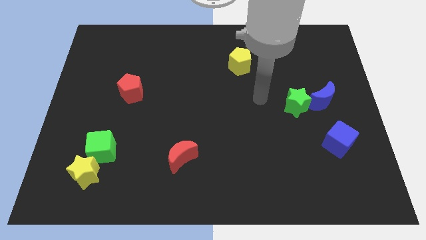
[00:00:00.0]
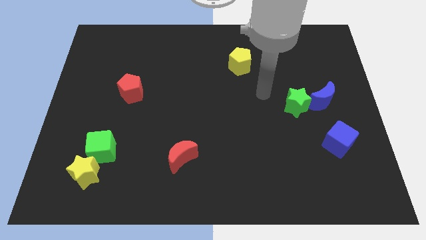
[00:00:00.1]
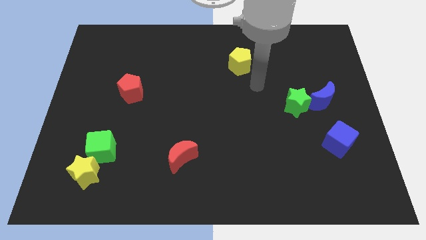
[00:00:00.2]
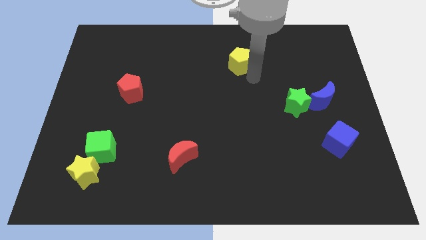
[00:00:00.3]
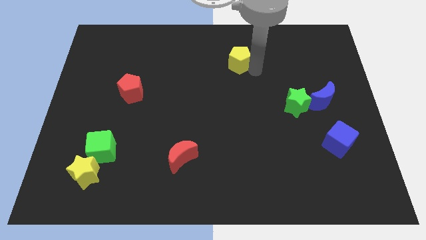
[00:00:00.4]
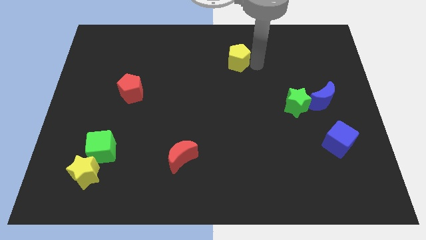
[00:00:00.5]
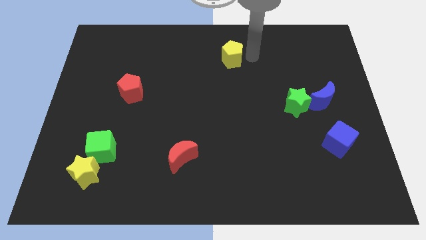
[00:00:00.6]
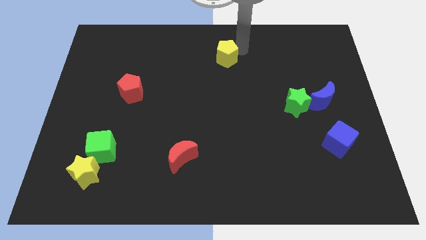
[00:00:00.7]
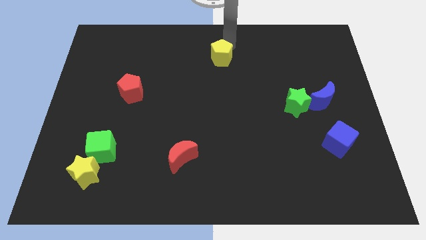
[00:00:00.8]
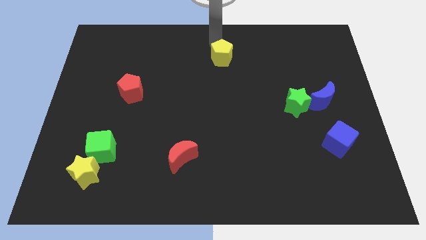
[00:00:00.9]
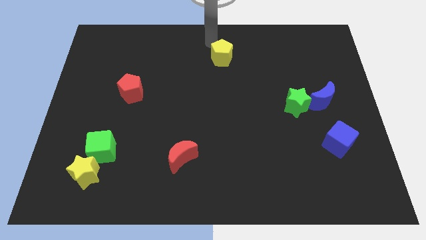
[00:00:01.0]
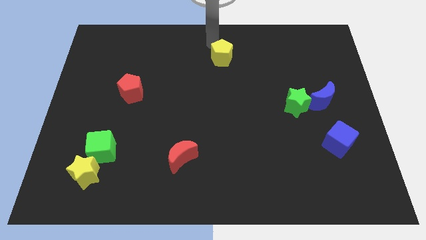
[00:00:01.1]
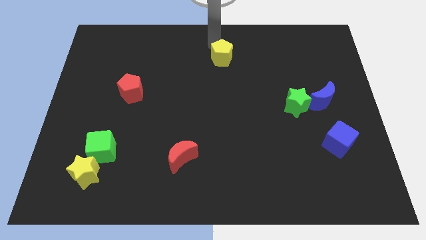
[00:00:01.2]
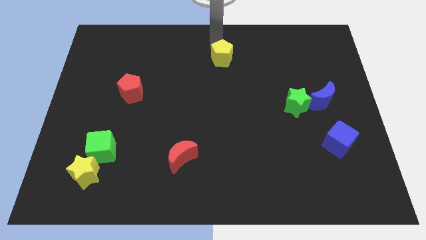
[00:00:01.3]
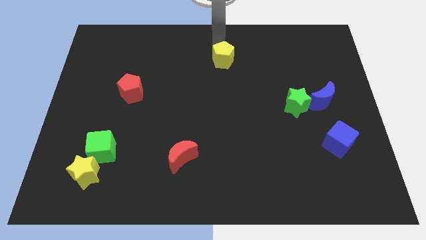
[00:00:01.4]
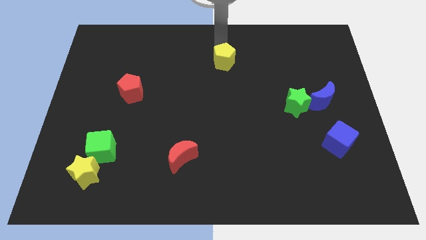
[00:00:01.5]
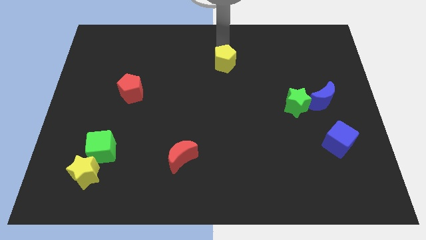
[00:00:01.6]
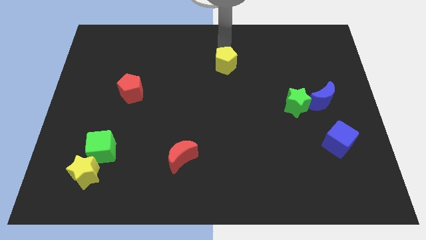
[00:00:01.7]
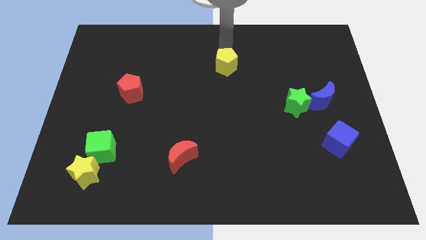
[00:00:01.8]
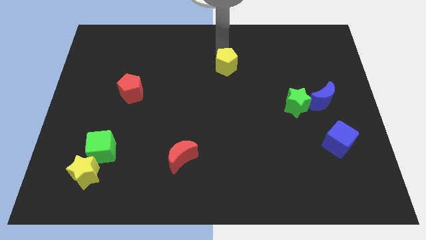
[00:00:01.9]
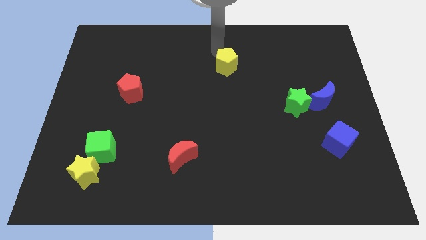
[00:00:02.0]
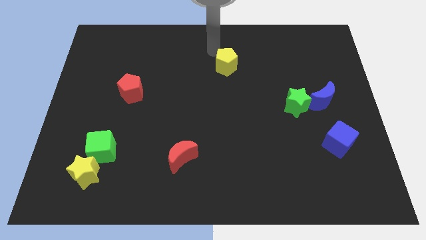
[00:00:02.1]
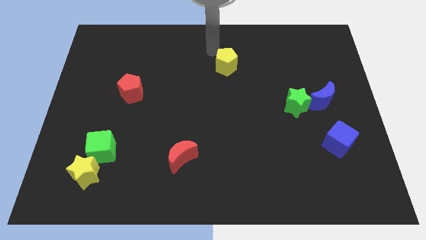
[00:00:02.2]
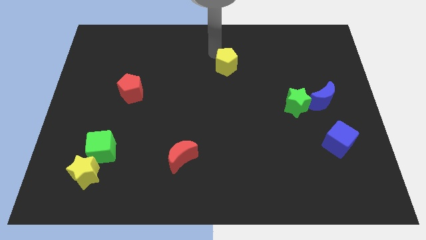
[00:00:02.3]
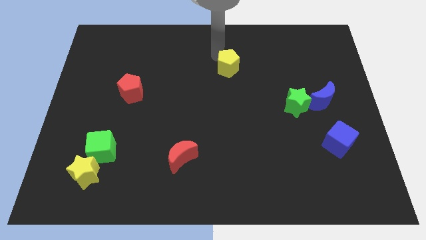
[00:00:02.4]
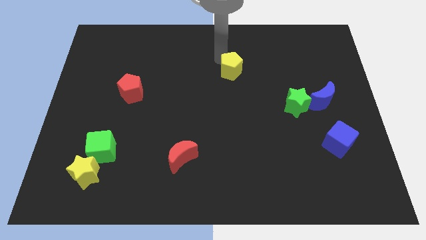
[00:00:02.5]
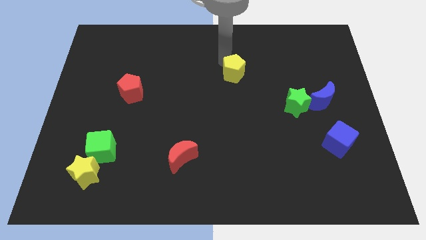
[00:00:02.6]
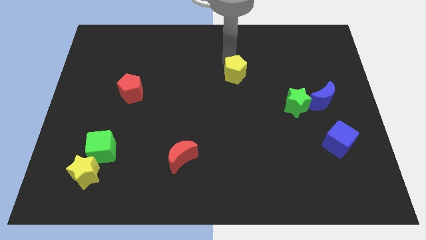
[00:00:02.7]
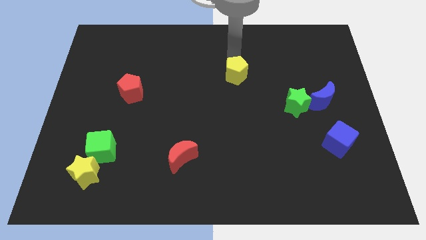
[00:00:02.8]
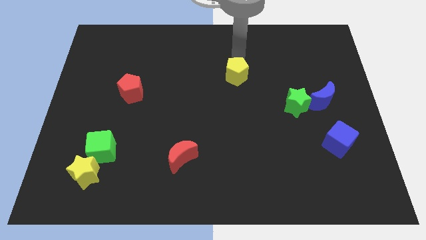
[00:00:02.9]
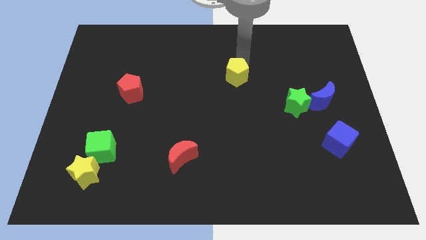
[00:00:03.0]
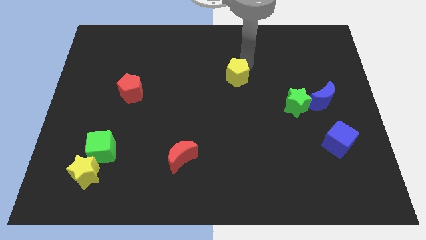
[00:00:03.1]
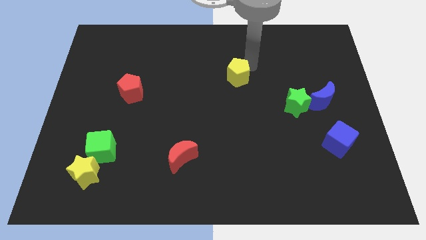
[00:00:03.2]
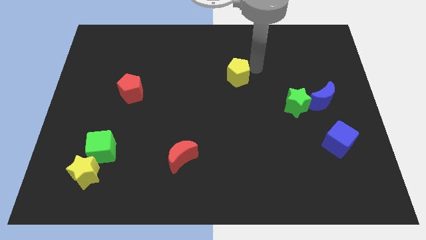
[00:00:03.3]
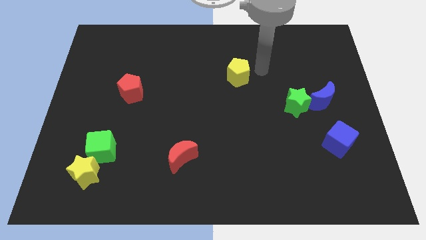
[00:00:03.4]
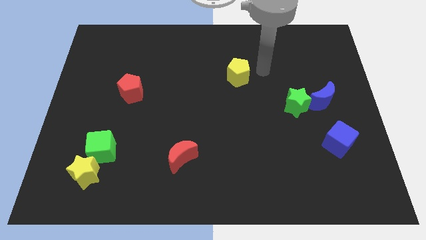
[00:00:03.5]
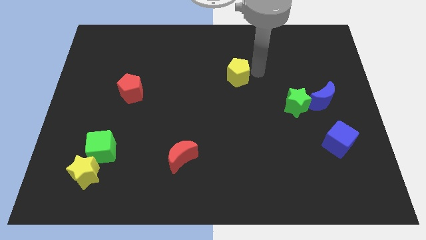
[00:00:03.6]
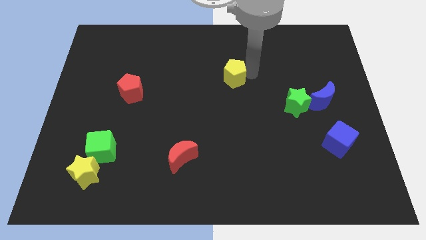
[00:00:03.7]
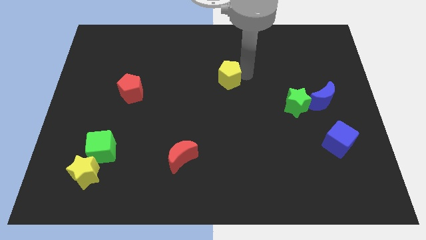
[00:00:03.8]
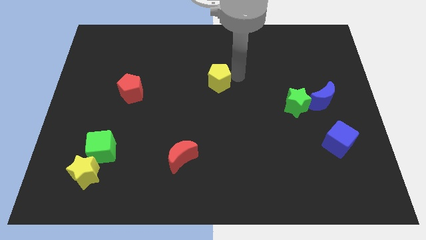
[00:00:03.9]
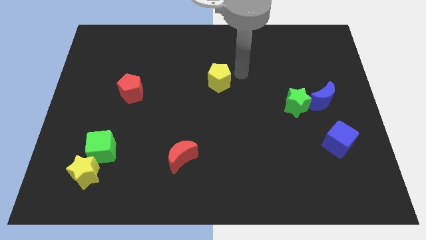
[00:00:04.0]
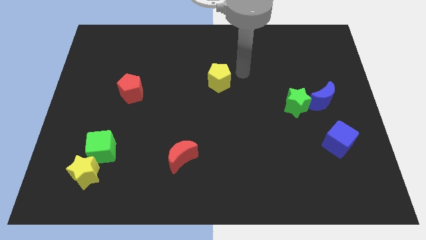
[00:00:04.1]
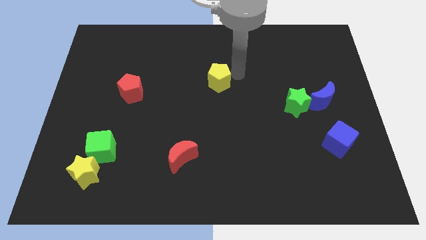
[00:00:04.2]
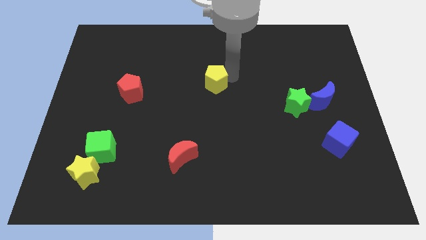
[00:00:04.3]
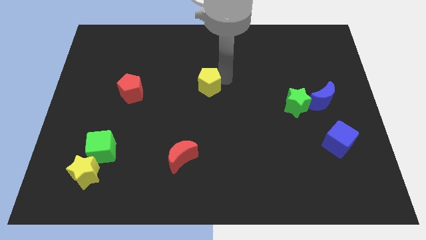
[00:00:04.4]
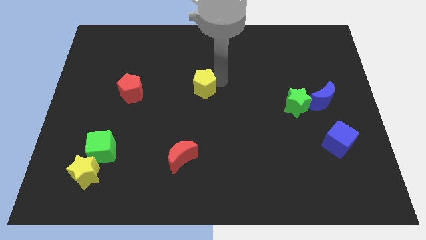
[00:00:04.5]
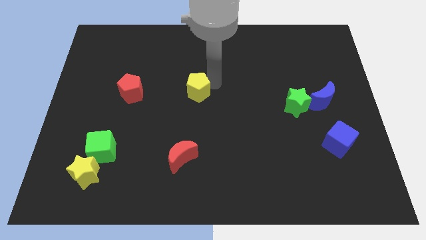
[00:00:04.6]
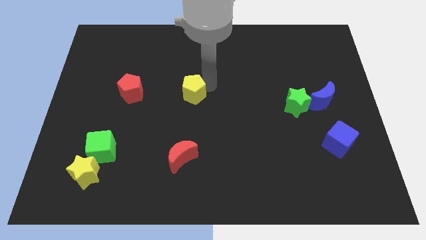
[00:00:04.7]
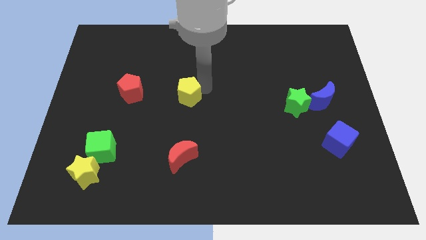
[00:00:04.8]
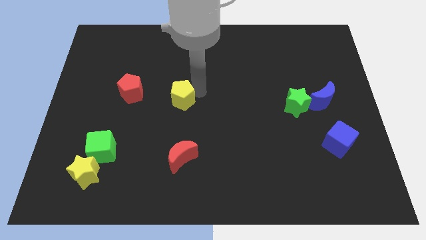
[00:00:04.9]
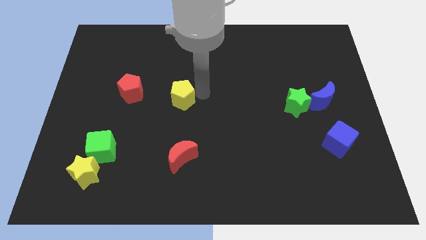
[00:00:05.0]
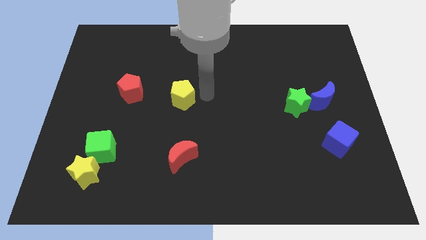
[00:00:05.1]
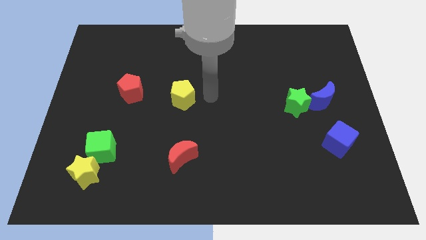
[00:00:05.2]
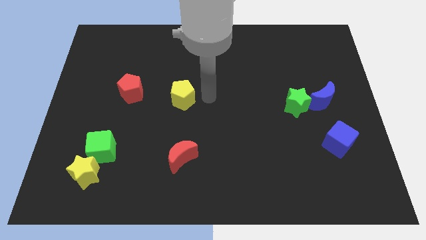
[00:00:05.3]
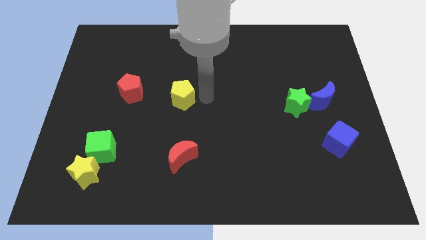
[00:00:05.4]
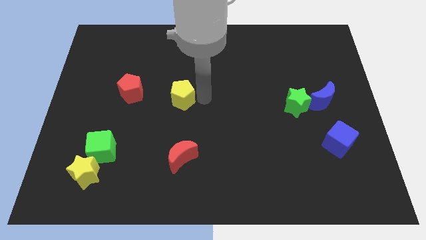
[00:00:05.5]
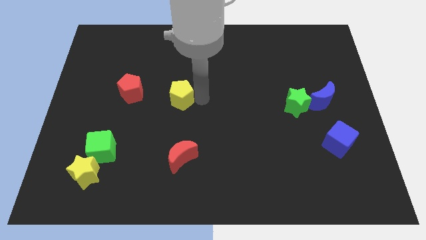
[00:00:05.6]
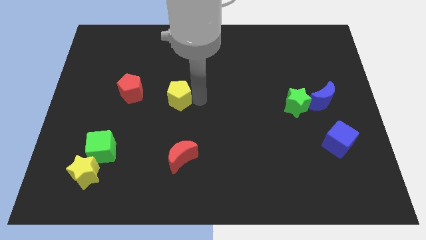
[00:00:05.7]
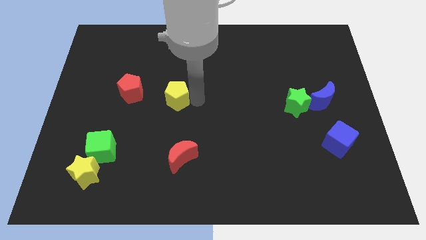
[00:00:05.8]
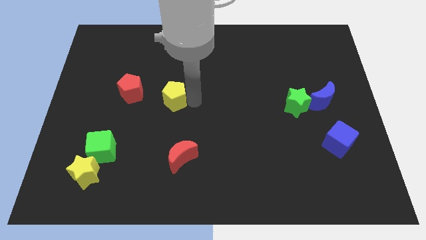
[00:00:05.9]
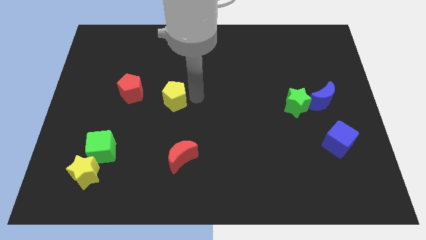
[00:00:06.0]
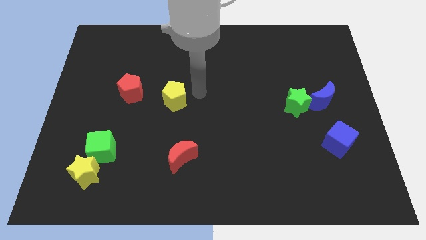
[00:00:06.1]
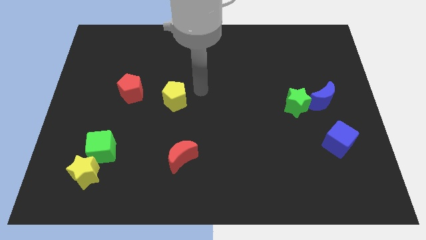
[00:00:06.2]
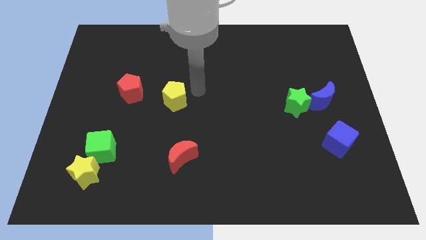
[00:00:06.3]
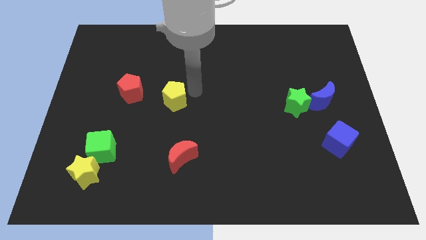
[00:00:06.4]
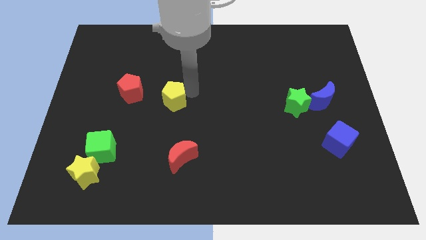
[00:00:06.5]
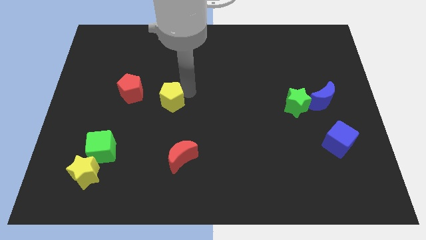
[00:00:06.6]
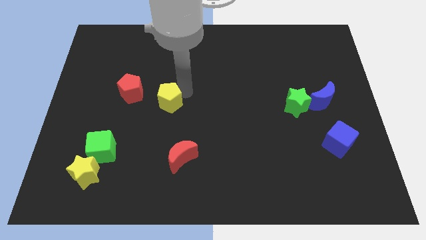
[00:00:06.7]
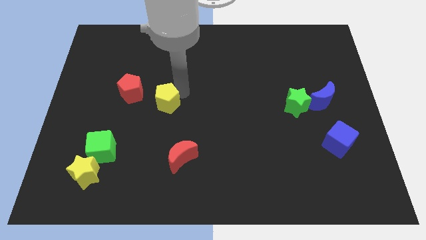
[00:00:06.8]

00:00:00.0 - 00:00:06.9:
put the yellow pentagon to the bottom right of the red pentagon

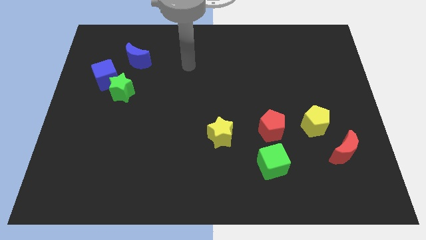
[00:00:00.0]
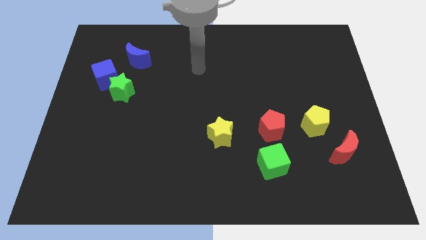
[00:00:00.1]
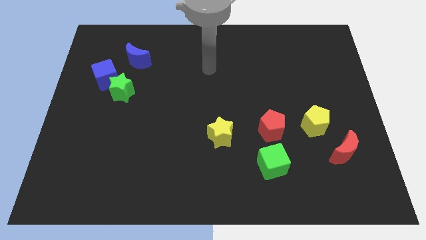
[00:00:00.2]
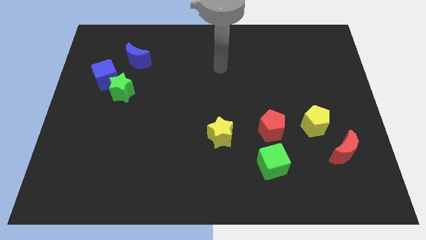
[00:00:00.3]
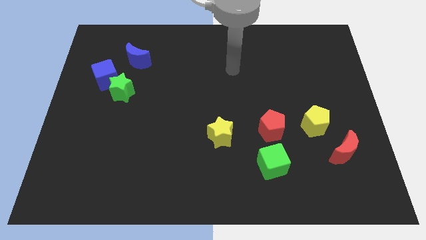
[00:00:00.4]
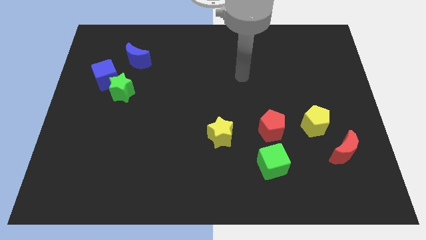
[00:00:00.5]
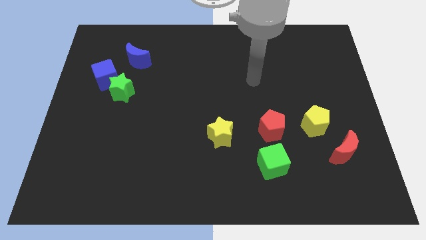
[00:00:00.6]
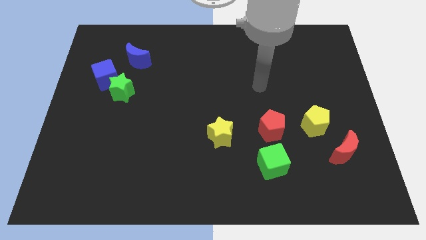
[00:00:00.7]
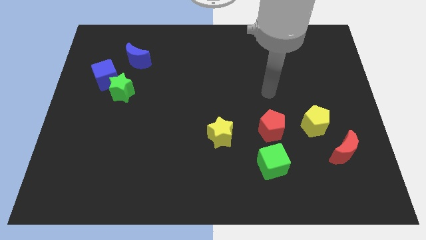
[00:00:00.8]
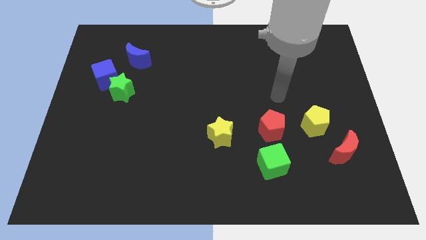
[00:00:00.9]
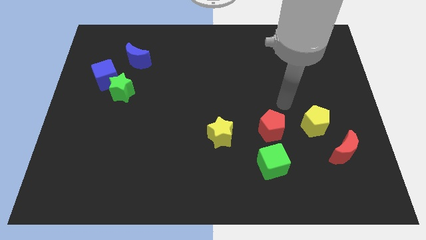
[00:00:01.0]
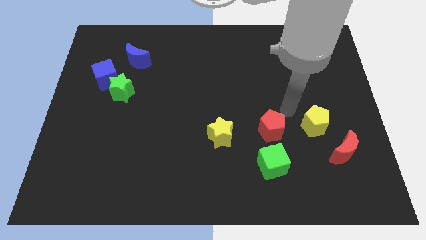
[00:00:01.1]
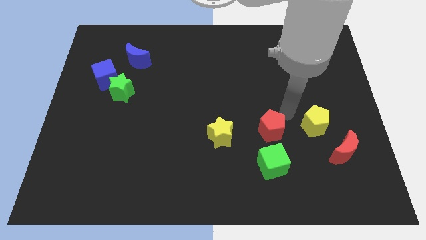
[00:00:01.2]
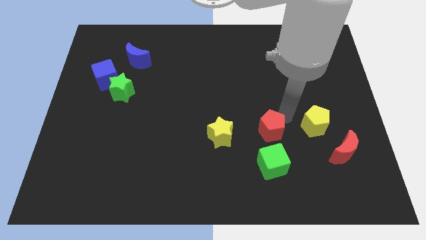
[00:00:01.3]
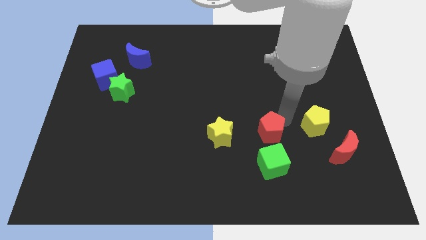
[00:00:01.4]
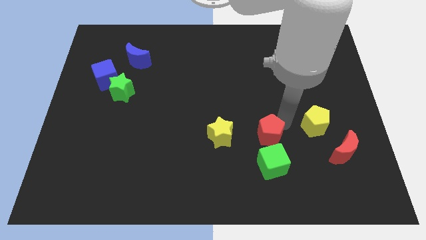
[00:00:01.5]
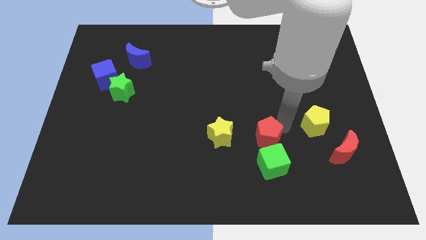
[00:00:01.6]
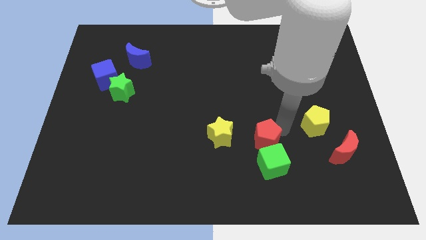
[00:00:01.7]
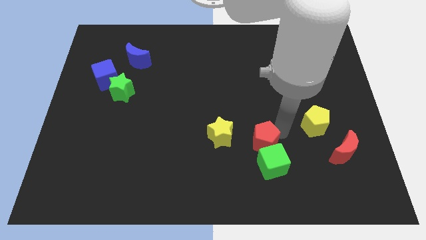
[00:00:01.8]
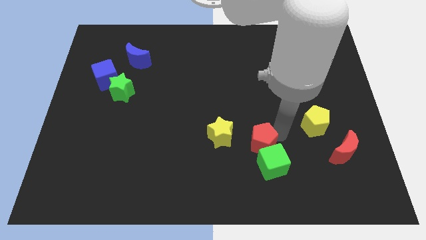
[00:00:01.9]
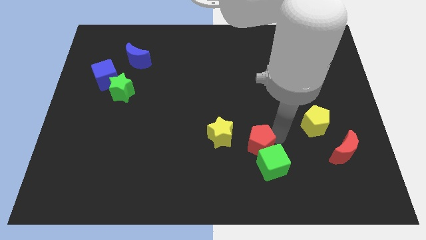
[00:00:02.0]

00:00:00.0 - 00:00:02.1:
move the red pentagon diagonally down and to the right of the yellow star
